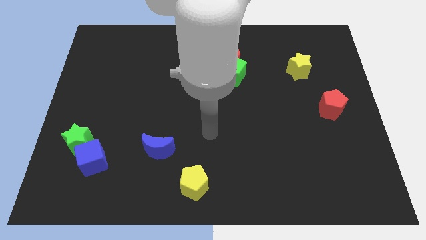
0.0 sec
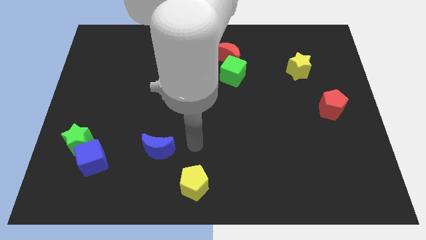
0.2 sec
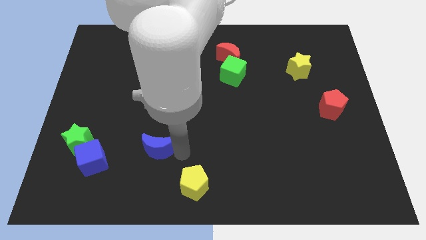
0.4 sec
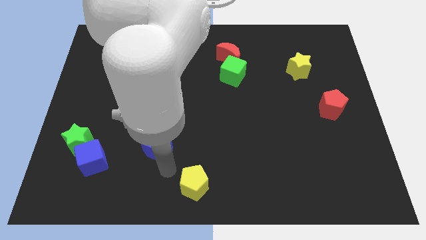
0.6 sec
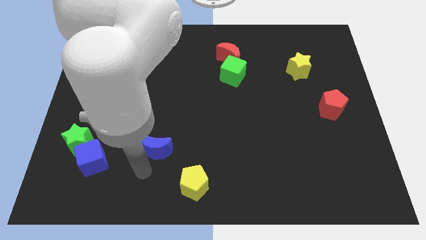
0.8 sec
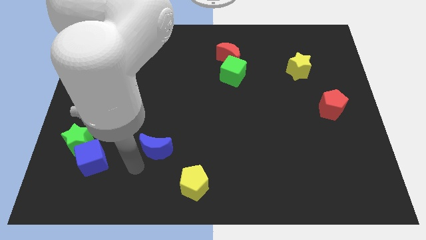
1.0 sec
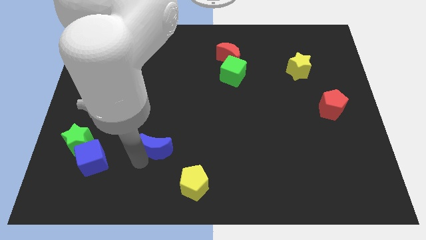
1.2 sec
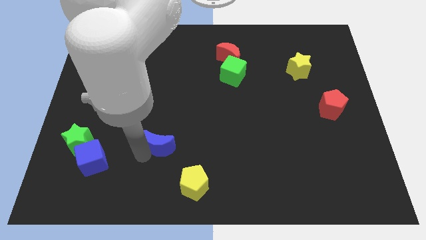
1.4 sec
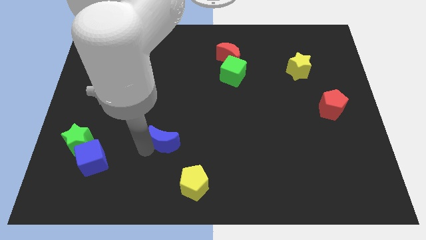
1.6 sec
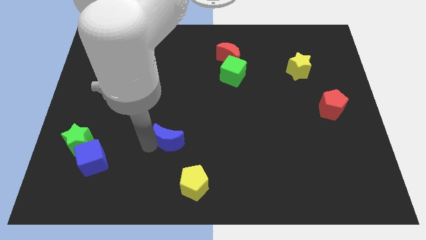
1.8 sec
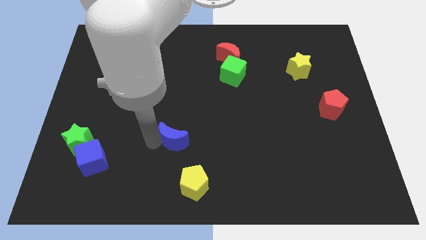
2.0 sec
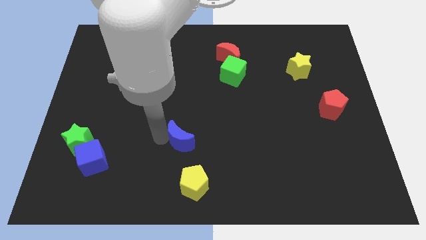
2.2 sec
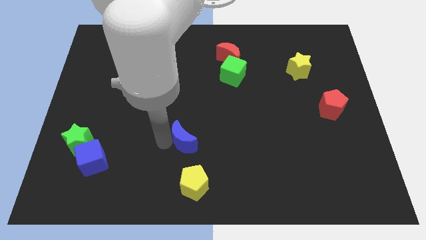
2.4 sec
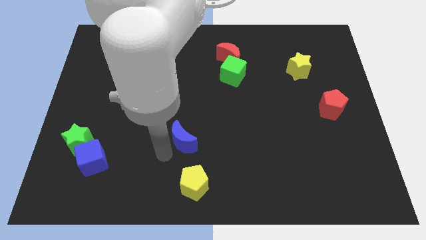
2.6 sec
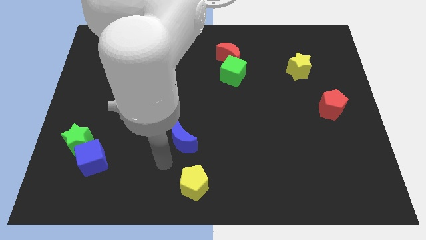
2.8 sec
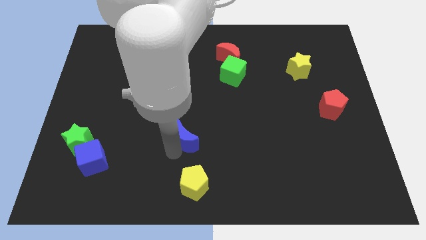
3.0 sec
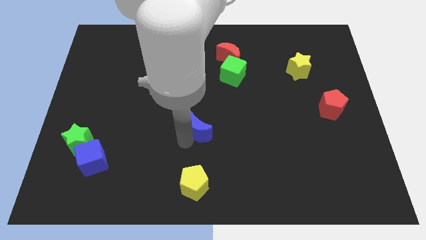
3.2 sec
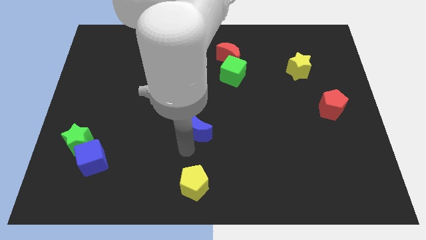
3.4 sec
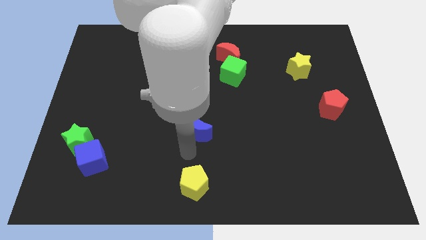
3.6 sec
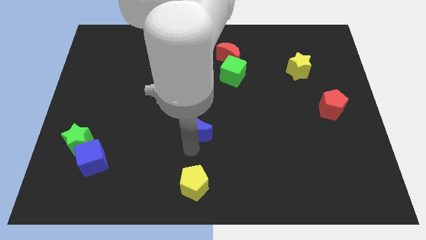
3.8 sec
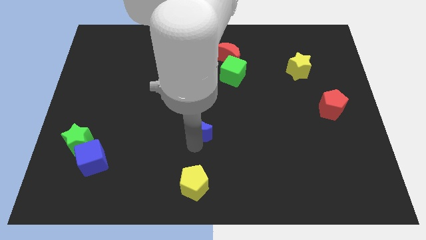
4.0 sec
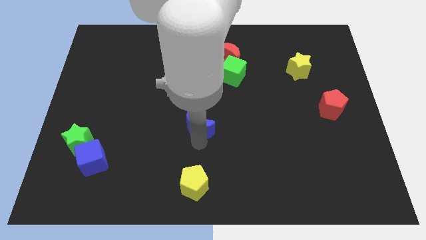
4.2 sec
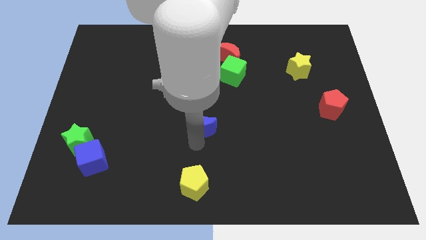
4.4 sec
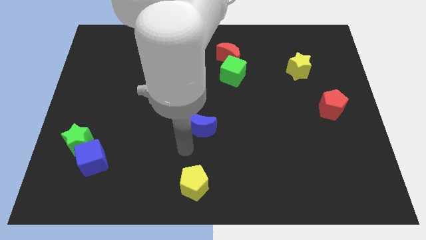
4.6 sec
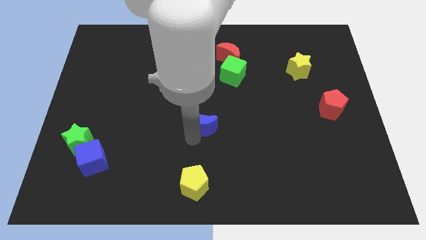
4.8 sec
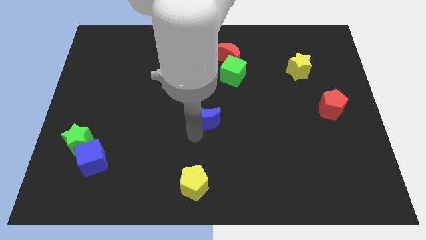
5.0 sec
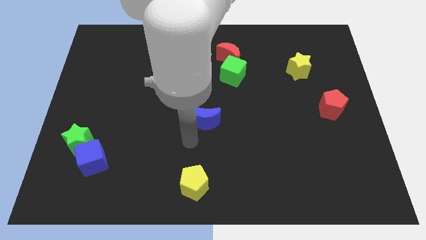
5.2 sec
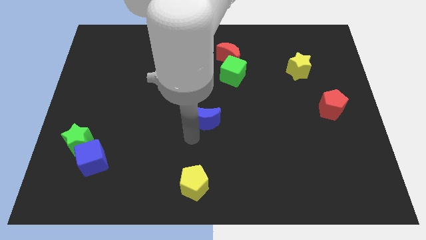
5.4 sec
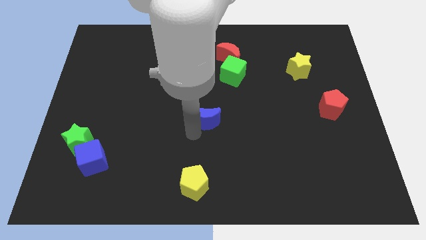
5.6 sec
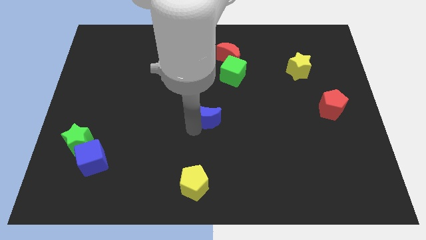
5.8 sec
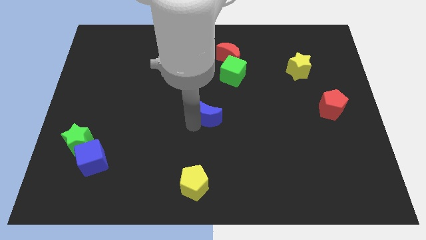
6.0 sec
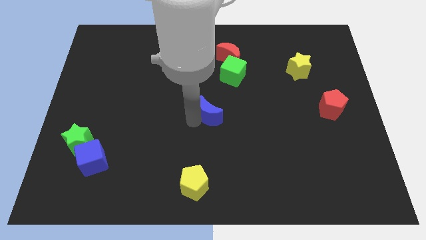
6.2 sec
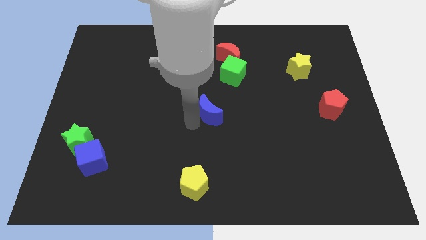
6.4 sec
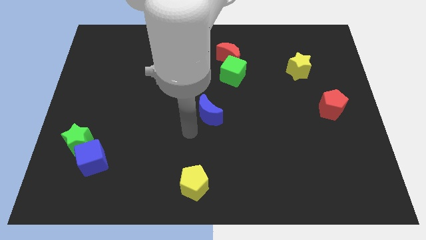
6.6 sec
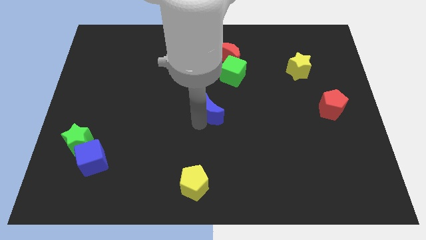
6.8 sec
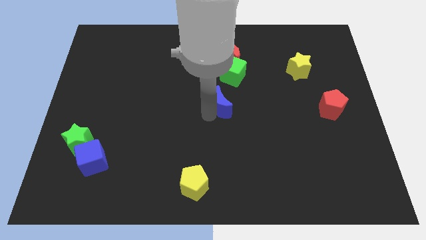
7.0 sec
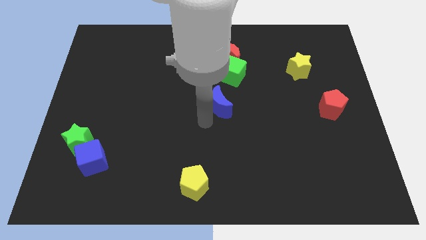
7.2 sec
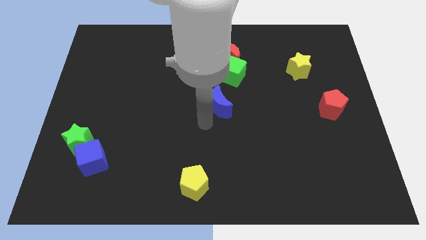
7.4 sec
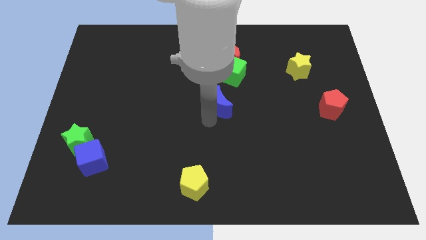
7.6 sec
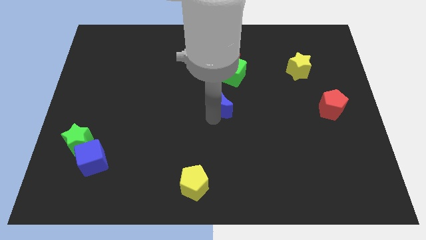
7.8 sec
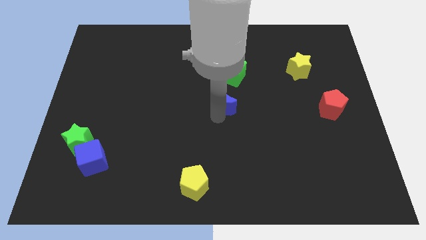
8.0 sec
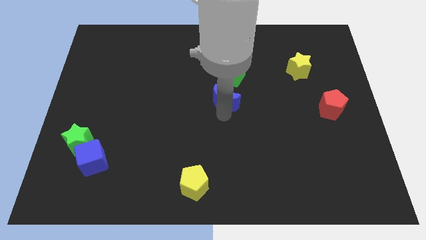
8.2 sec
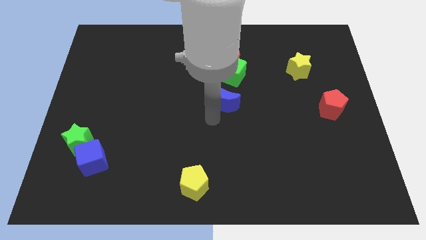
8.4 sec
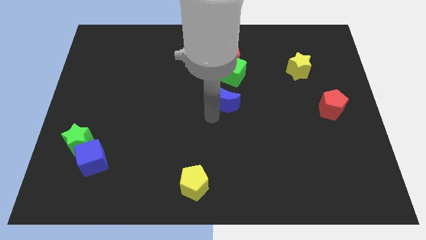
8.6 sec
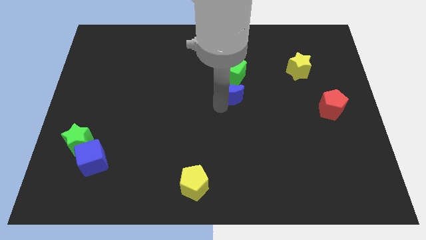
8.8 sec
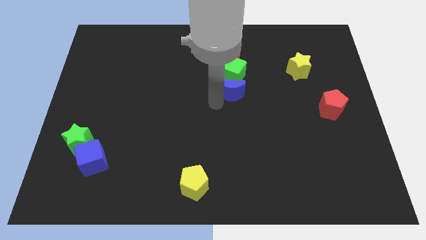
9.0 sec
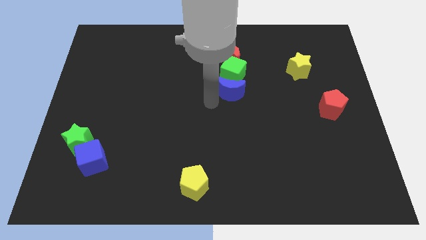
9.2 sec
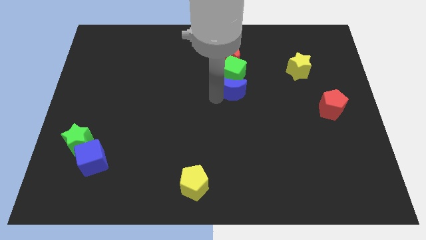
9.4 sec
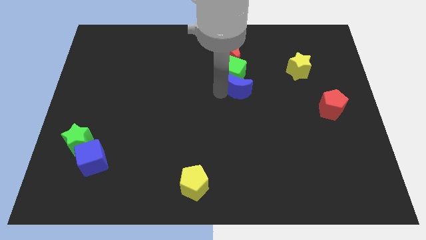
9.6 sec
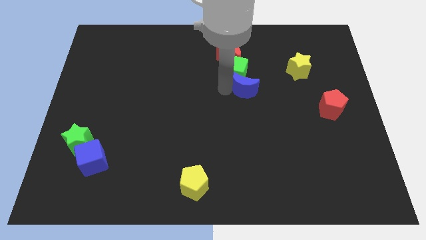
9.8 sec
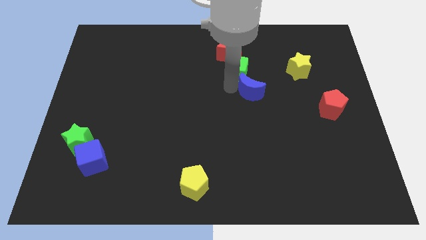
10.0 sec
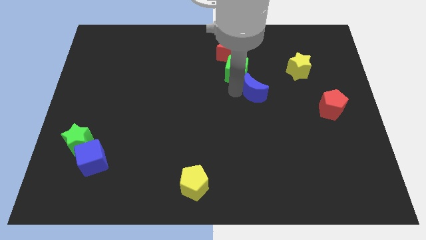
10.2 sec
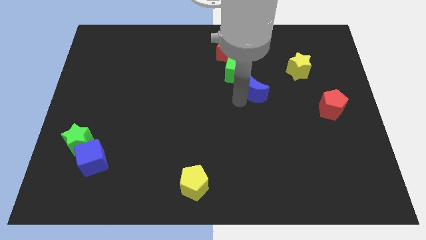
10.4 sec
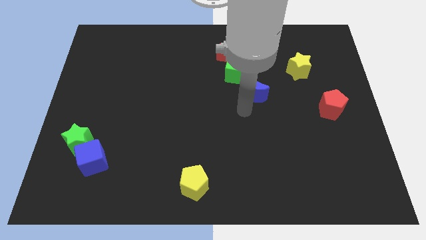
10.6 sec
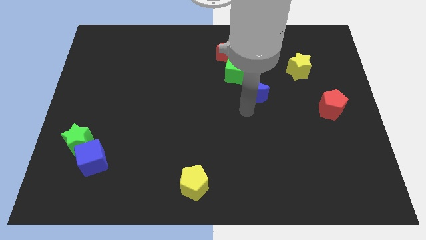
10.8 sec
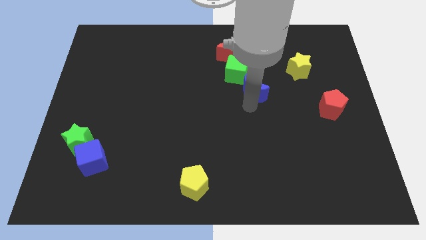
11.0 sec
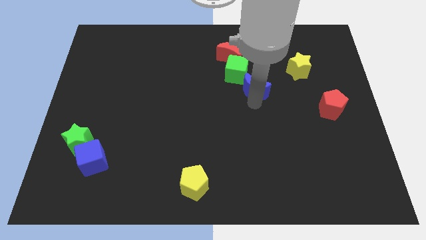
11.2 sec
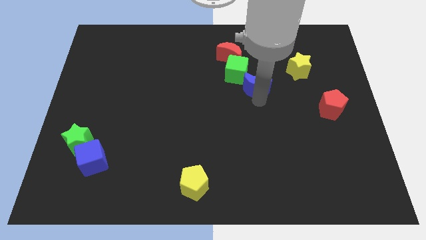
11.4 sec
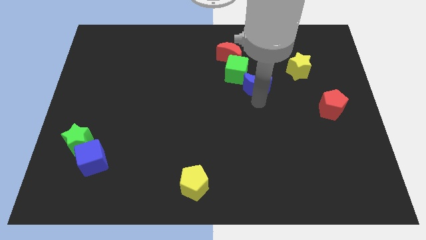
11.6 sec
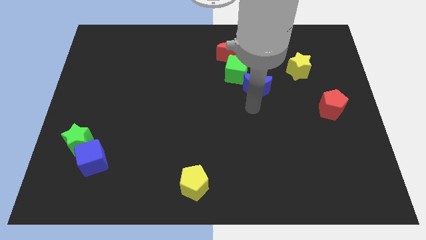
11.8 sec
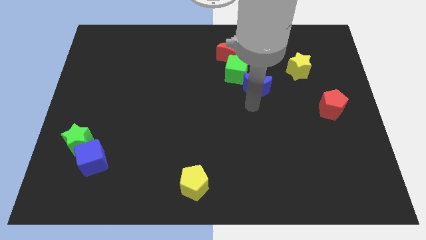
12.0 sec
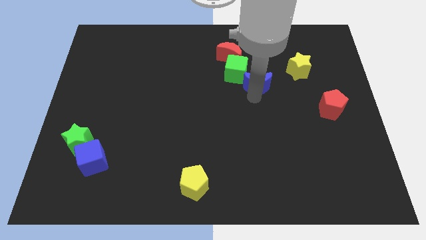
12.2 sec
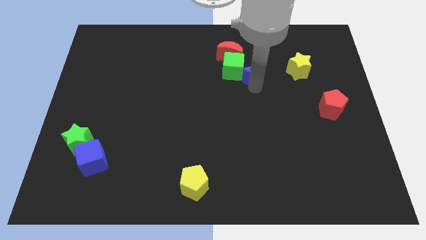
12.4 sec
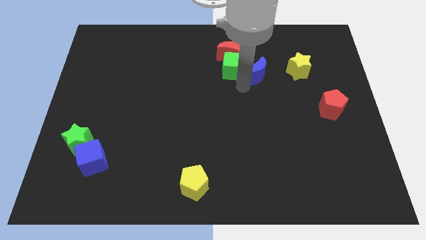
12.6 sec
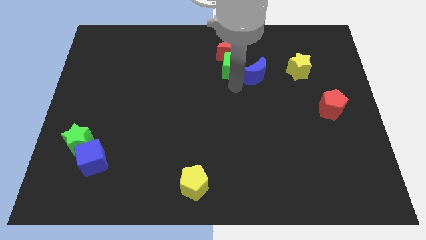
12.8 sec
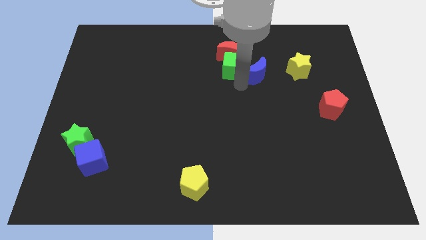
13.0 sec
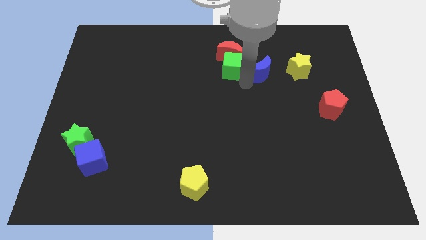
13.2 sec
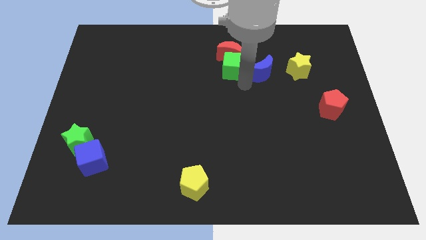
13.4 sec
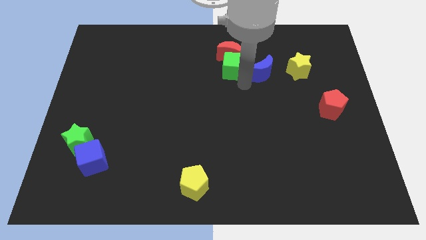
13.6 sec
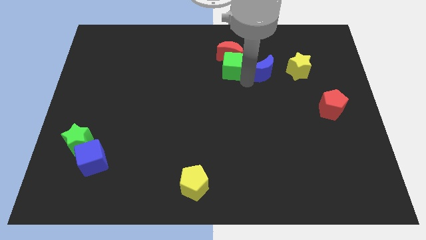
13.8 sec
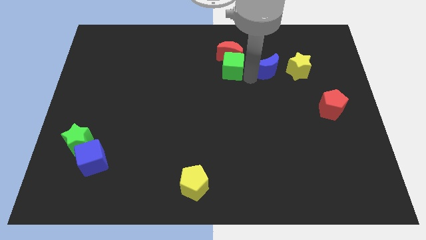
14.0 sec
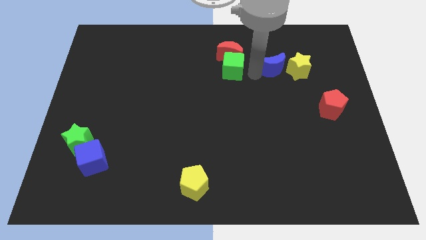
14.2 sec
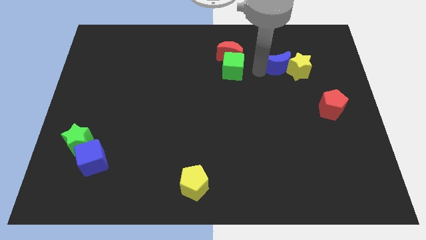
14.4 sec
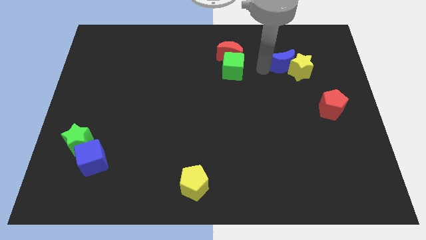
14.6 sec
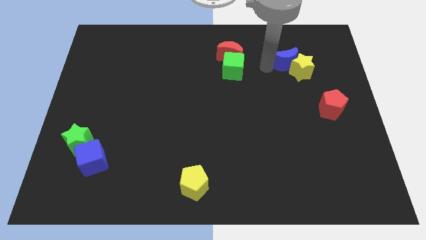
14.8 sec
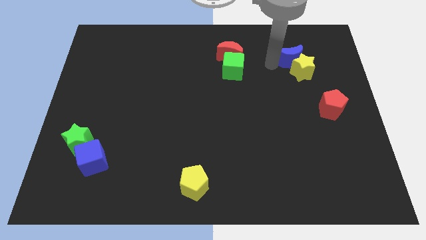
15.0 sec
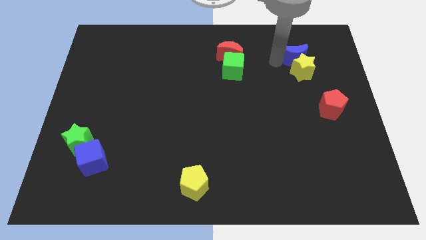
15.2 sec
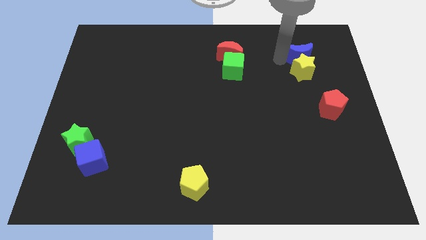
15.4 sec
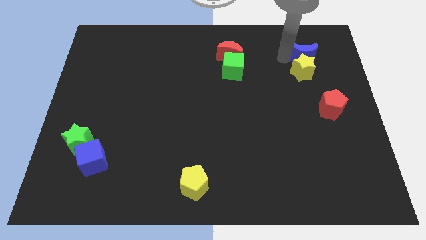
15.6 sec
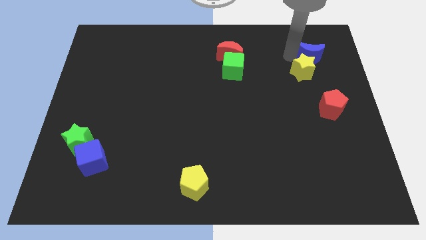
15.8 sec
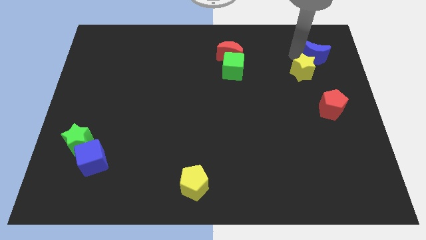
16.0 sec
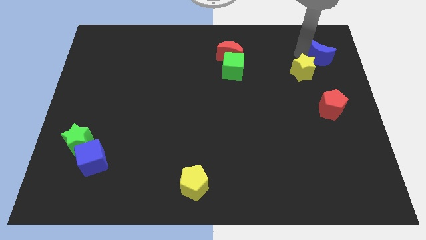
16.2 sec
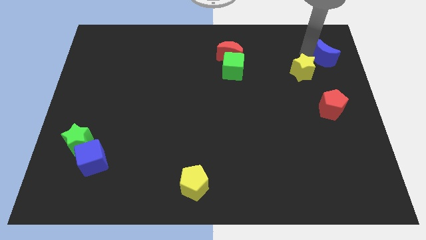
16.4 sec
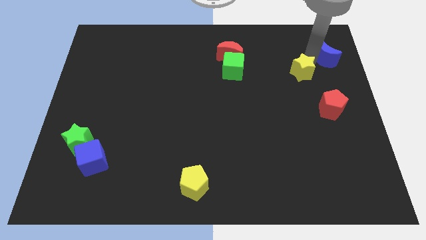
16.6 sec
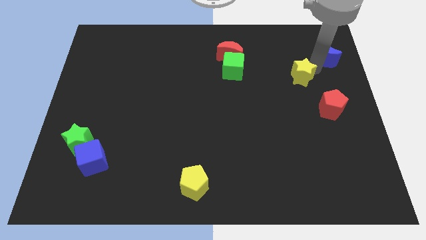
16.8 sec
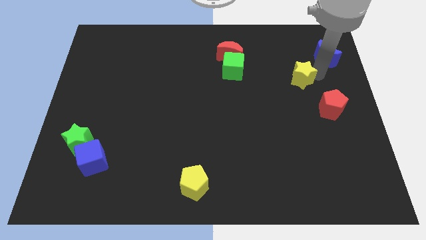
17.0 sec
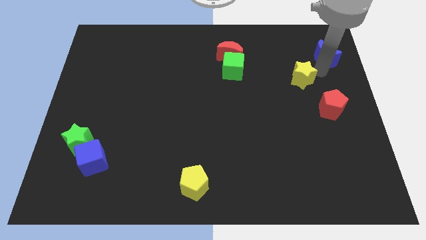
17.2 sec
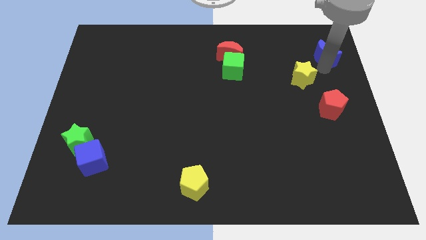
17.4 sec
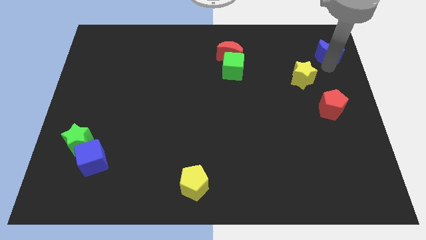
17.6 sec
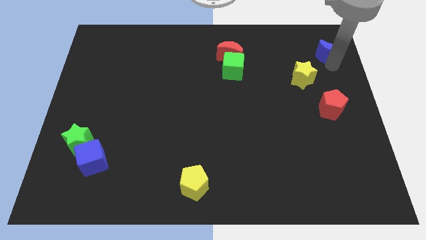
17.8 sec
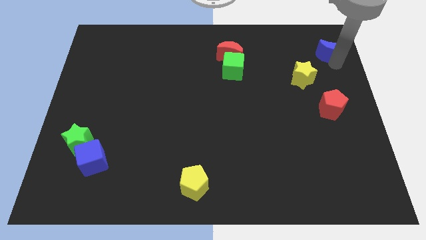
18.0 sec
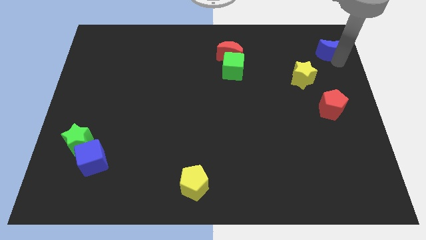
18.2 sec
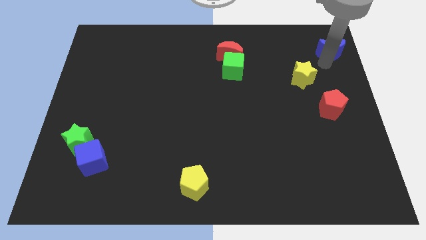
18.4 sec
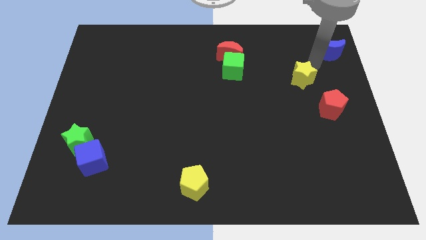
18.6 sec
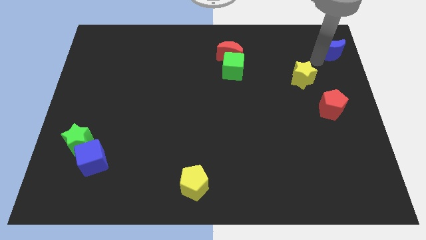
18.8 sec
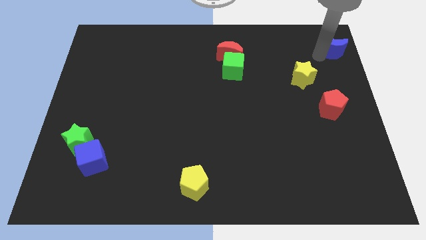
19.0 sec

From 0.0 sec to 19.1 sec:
move the blue moon to the top right of the board
